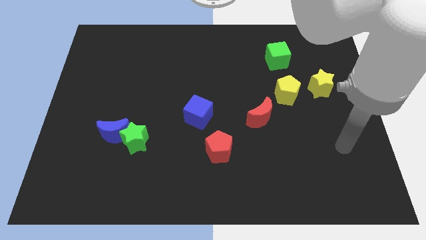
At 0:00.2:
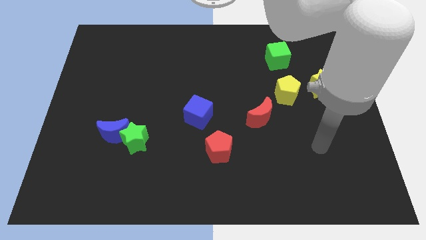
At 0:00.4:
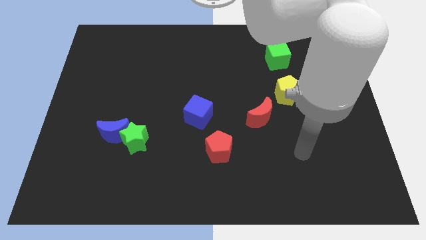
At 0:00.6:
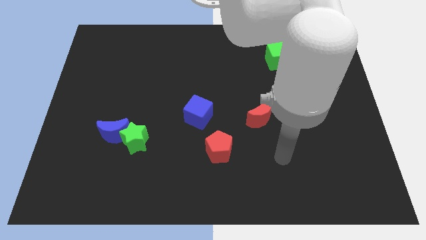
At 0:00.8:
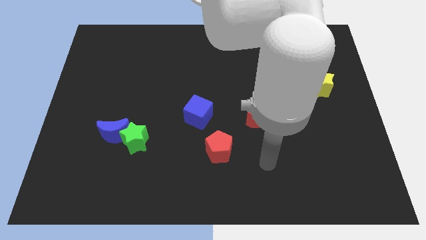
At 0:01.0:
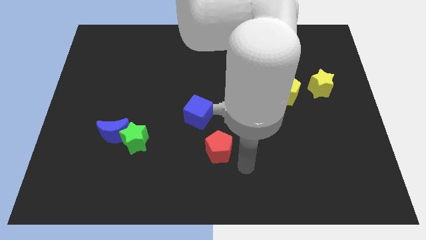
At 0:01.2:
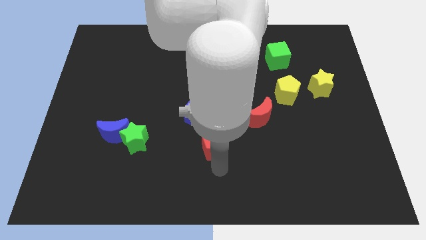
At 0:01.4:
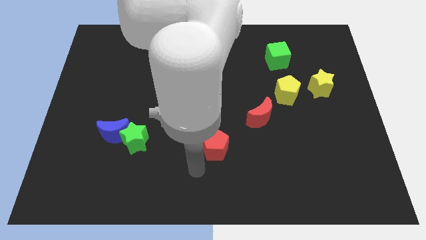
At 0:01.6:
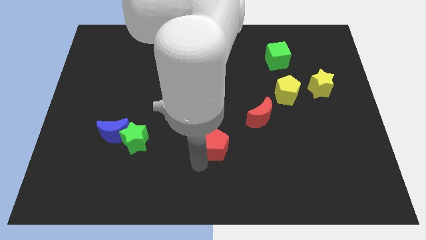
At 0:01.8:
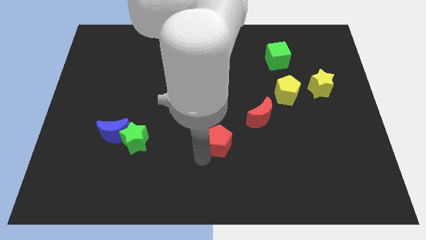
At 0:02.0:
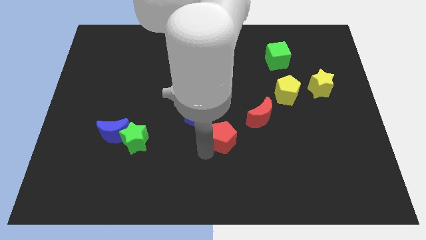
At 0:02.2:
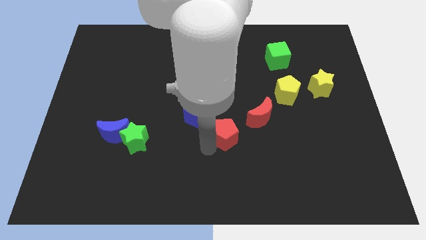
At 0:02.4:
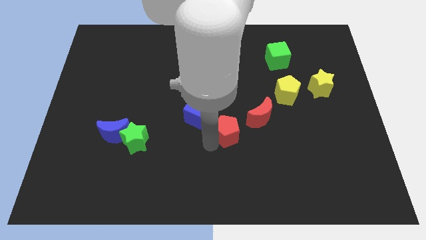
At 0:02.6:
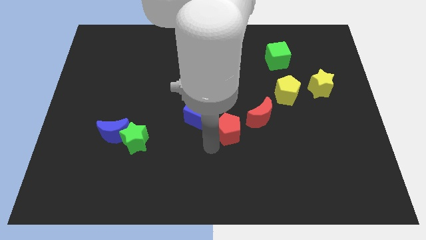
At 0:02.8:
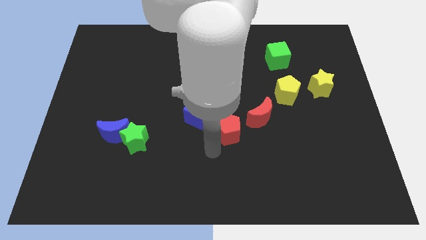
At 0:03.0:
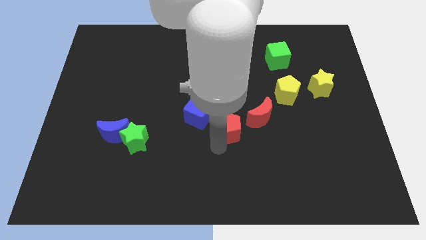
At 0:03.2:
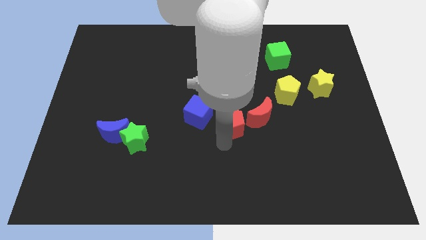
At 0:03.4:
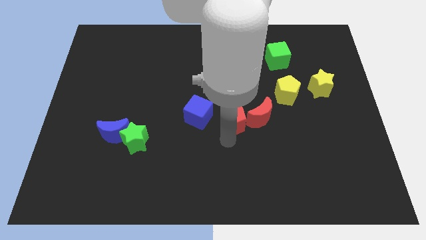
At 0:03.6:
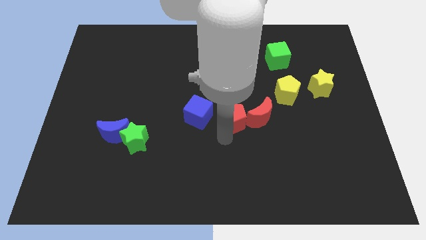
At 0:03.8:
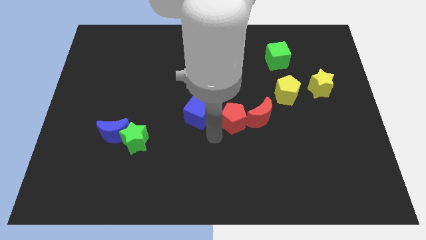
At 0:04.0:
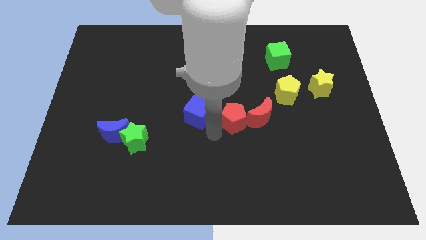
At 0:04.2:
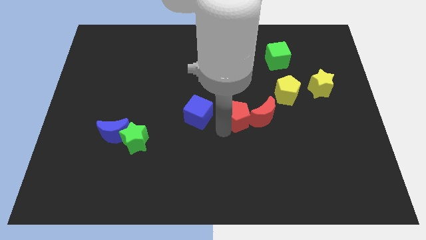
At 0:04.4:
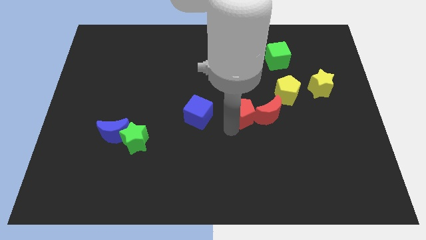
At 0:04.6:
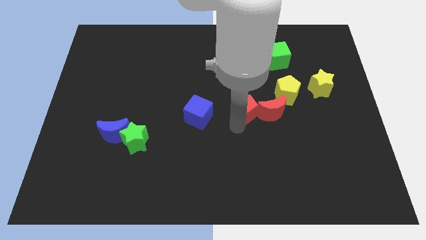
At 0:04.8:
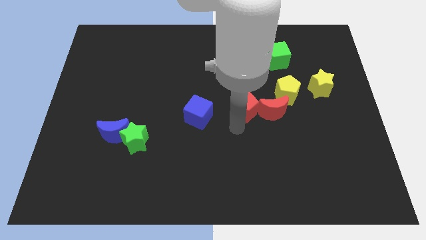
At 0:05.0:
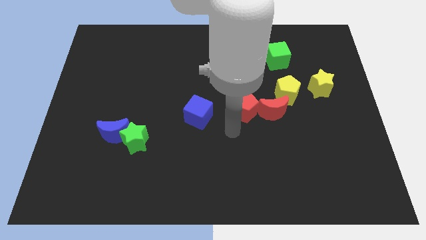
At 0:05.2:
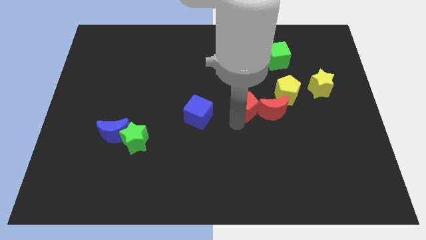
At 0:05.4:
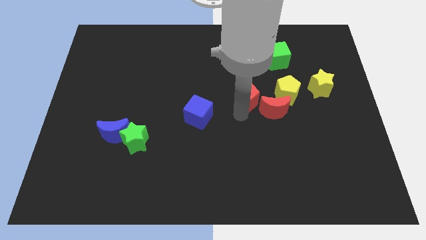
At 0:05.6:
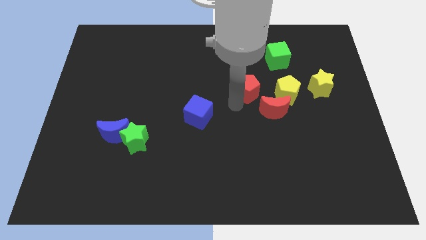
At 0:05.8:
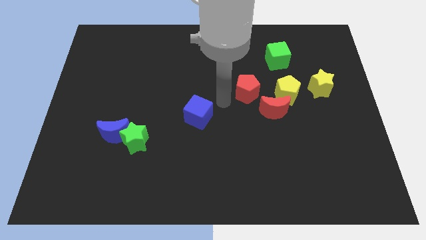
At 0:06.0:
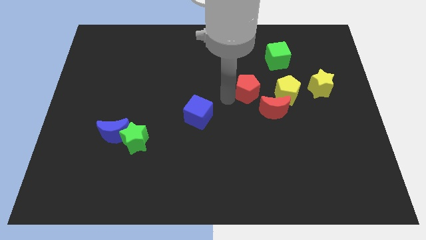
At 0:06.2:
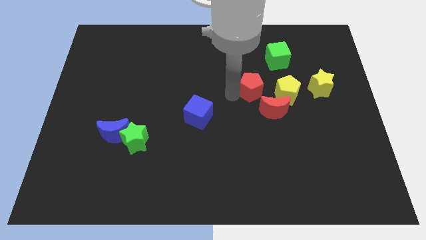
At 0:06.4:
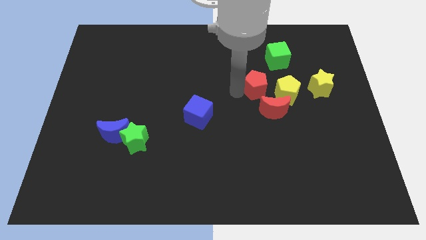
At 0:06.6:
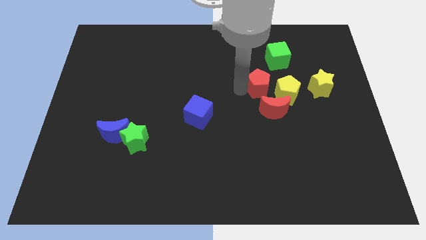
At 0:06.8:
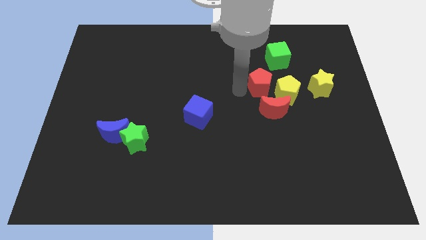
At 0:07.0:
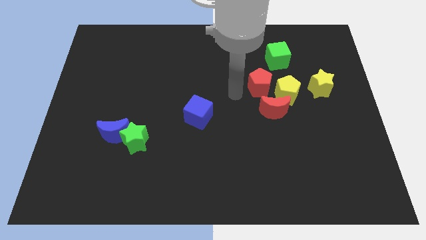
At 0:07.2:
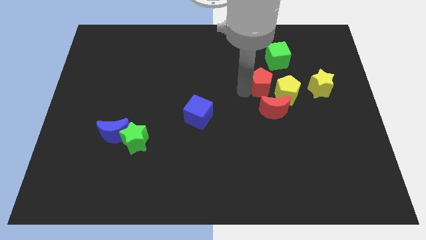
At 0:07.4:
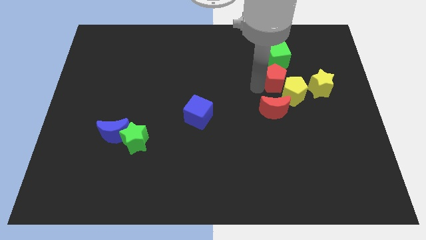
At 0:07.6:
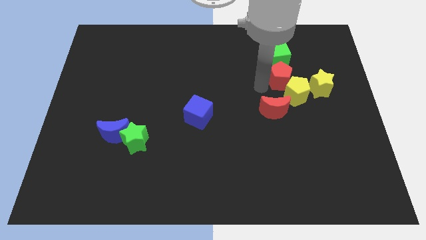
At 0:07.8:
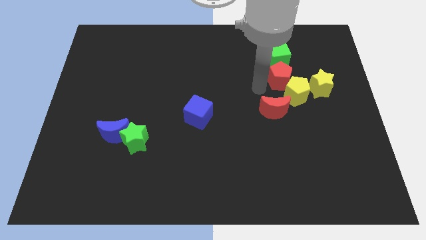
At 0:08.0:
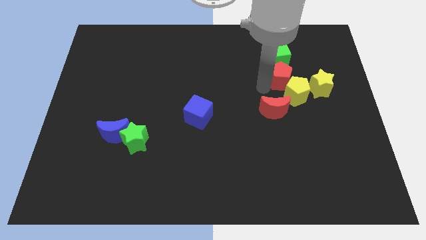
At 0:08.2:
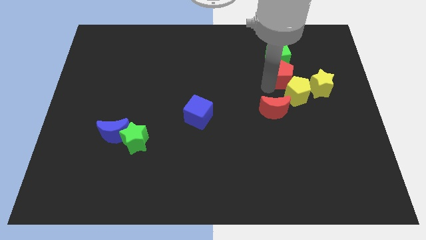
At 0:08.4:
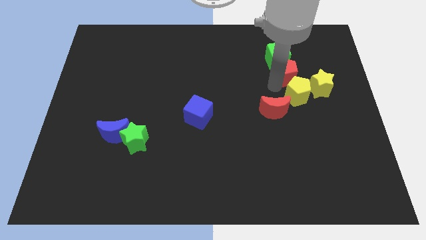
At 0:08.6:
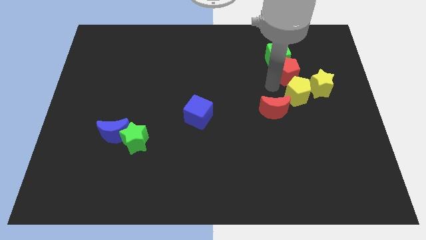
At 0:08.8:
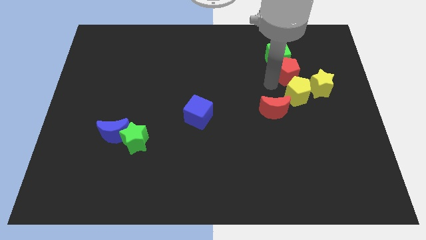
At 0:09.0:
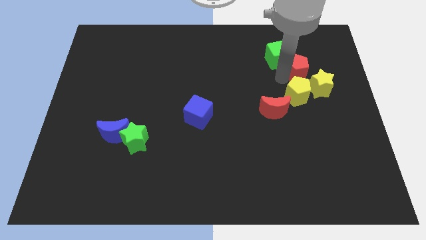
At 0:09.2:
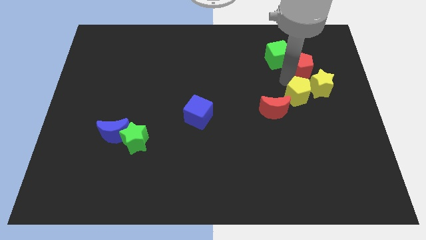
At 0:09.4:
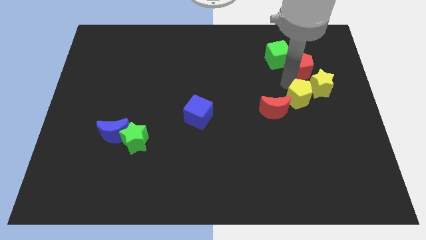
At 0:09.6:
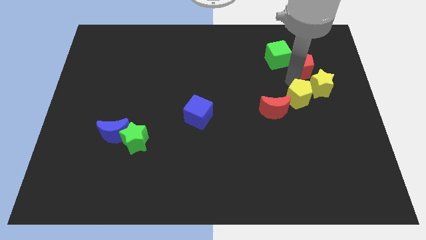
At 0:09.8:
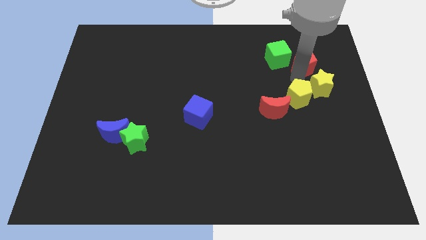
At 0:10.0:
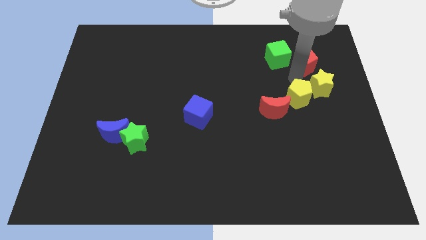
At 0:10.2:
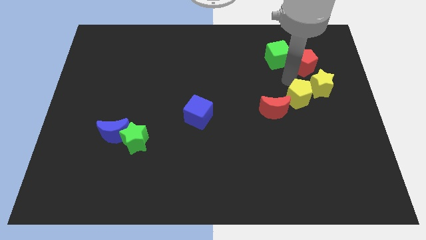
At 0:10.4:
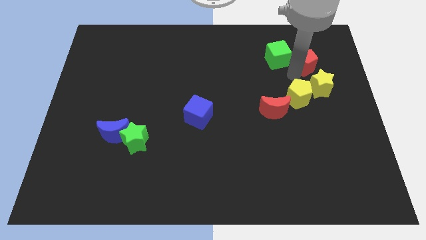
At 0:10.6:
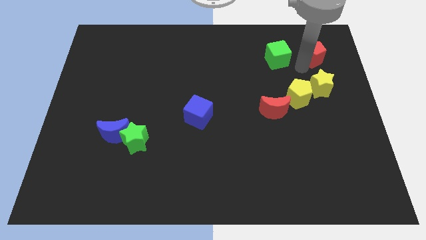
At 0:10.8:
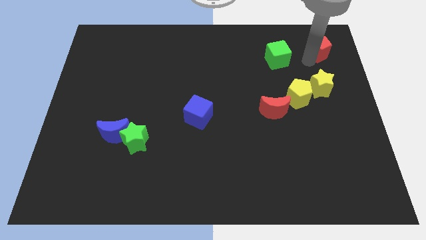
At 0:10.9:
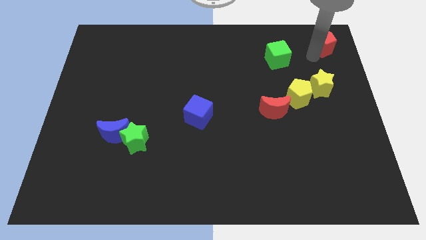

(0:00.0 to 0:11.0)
move the red pentagon to the top right corner

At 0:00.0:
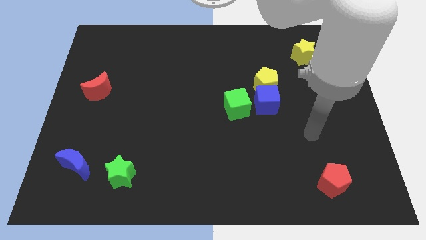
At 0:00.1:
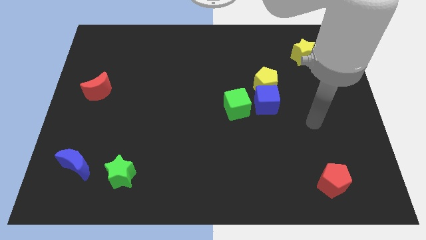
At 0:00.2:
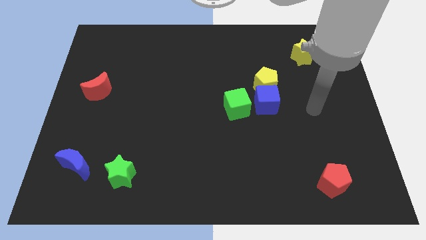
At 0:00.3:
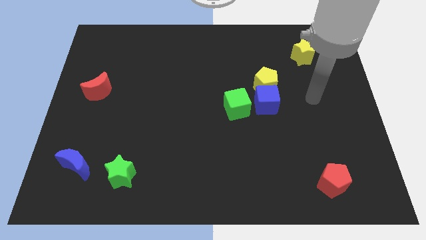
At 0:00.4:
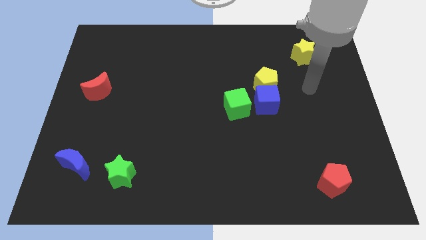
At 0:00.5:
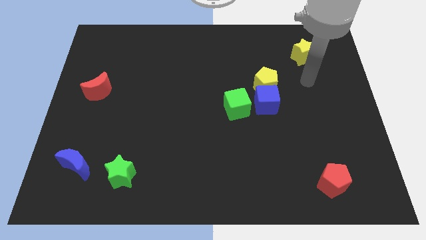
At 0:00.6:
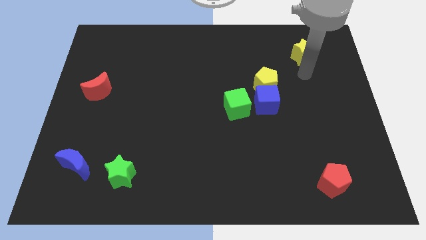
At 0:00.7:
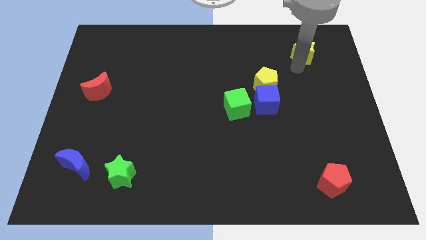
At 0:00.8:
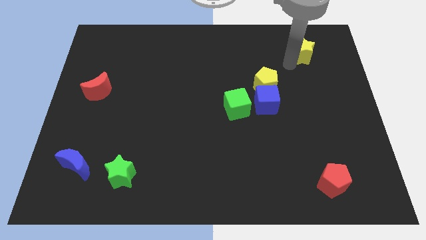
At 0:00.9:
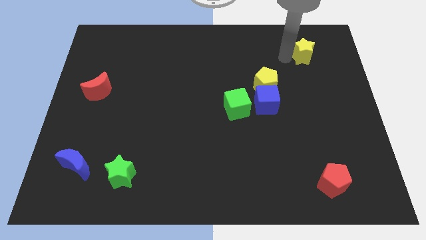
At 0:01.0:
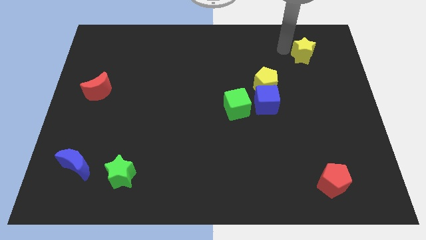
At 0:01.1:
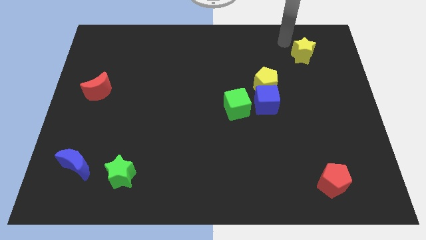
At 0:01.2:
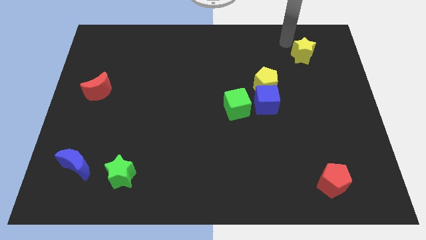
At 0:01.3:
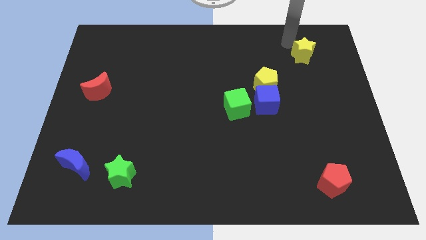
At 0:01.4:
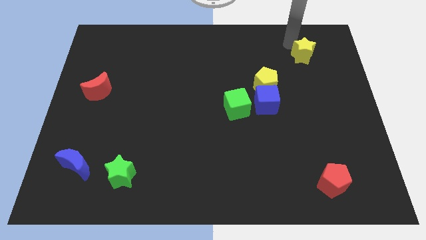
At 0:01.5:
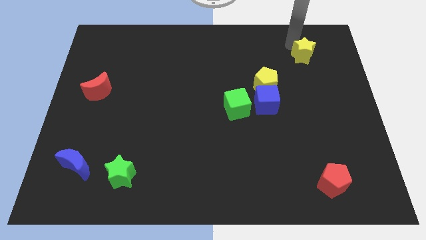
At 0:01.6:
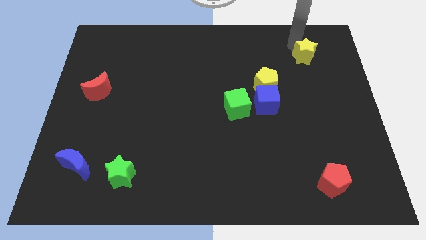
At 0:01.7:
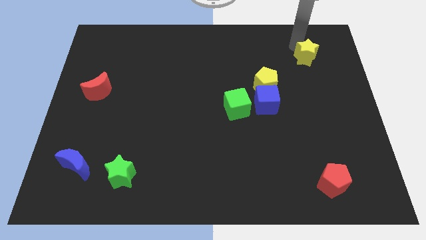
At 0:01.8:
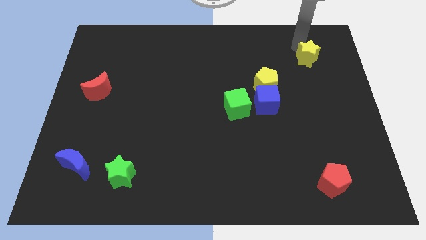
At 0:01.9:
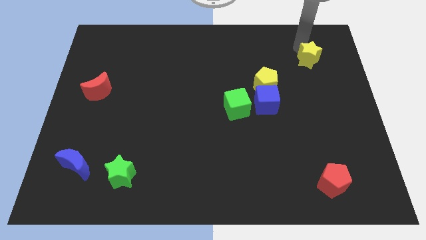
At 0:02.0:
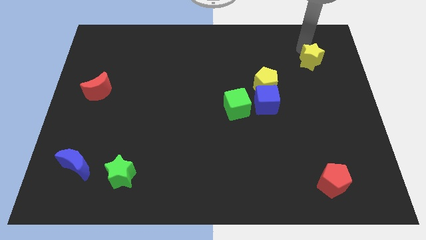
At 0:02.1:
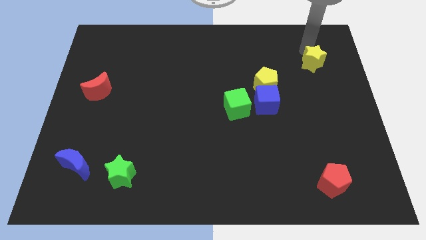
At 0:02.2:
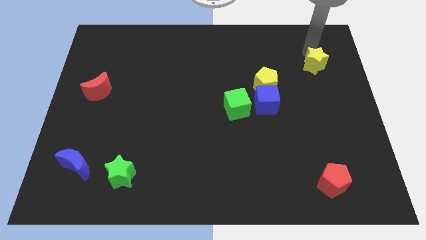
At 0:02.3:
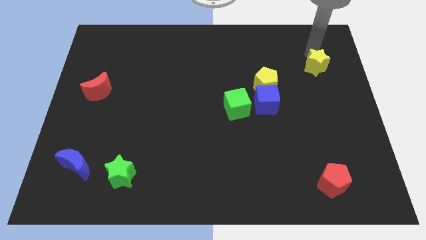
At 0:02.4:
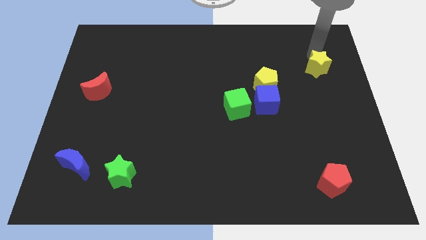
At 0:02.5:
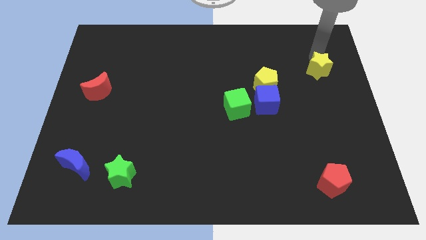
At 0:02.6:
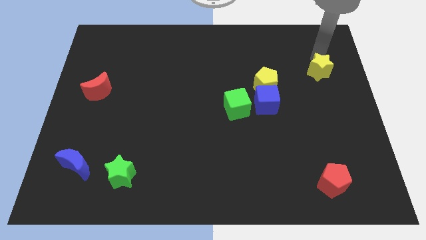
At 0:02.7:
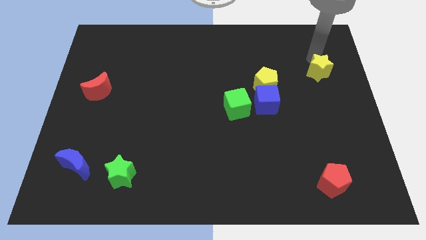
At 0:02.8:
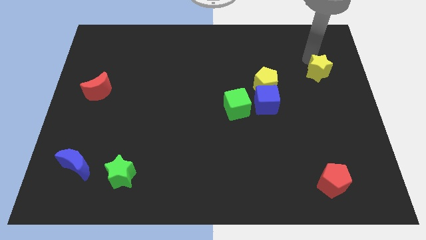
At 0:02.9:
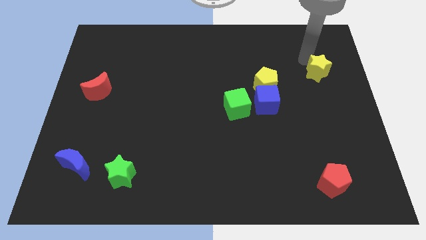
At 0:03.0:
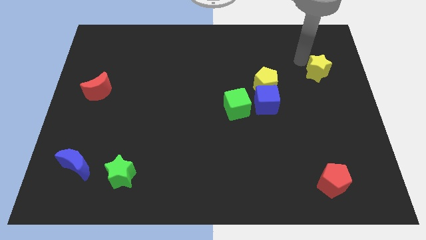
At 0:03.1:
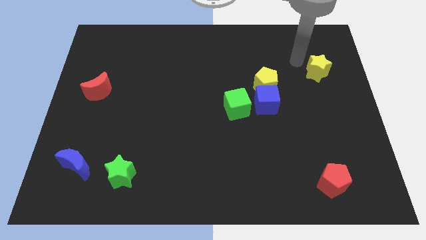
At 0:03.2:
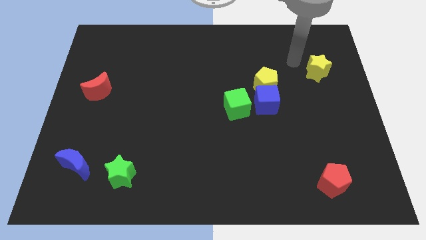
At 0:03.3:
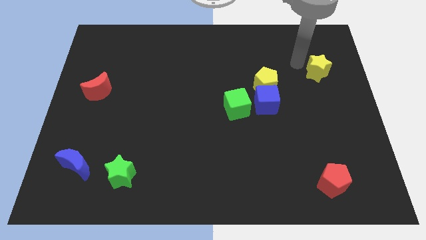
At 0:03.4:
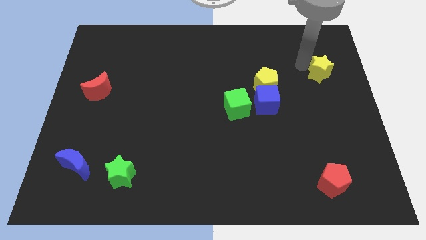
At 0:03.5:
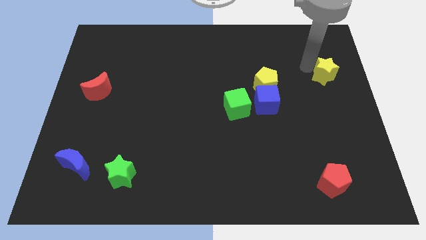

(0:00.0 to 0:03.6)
put the yellow star to the center right
